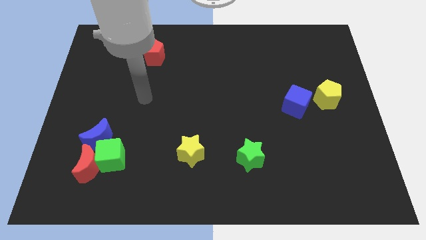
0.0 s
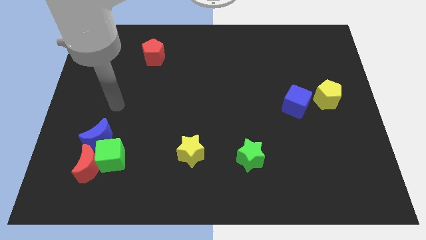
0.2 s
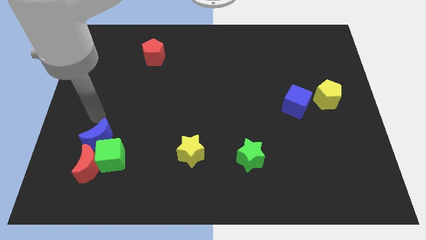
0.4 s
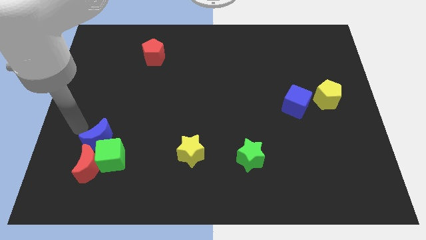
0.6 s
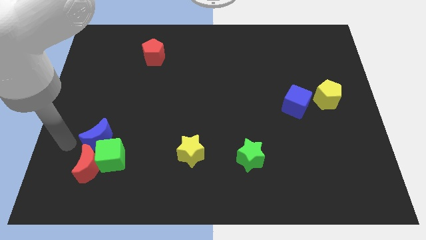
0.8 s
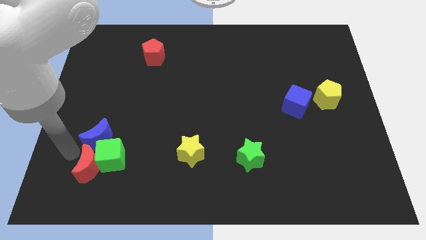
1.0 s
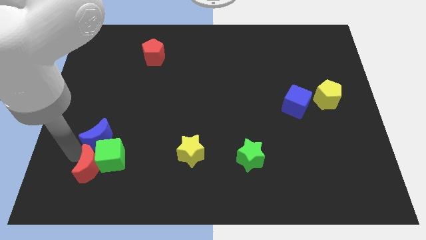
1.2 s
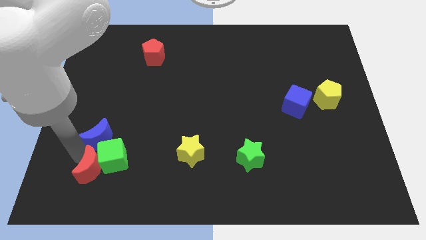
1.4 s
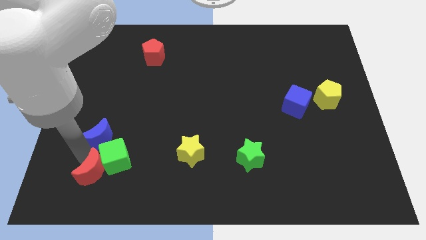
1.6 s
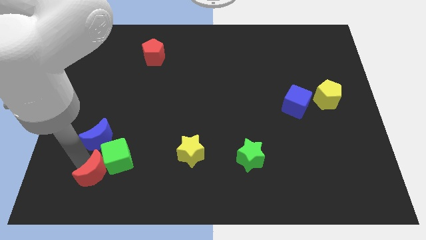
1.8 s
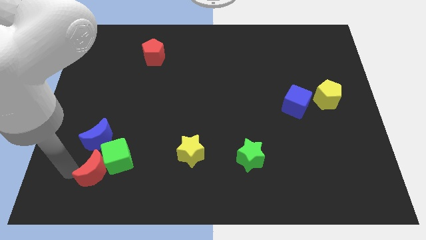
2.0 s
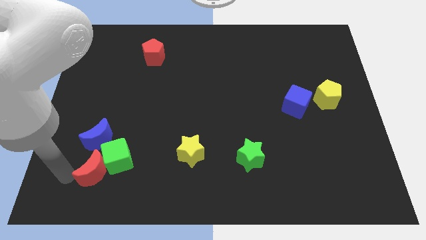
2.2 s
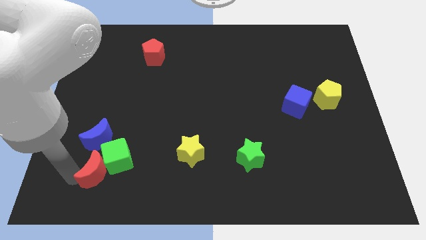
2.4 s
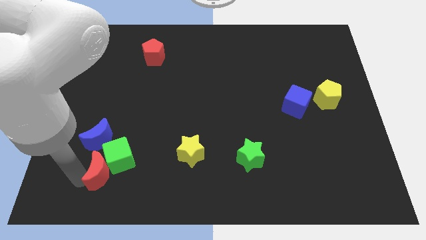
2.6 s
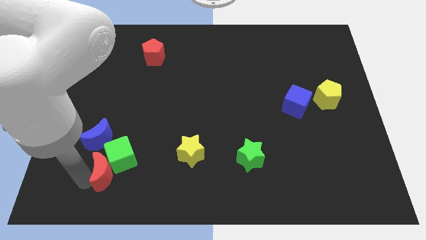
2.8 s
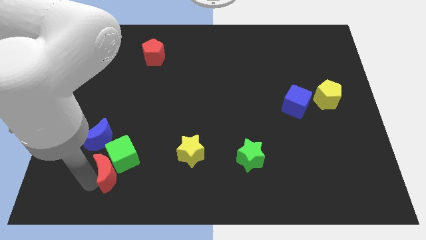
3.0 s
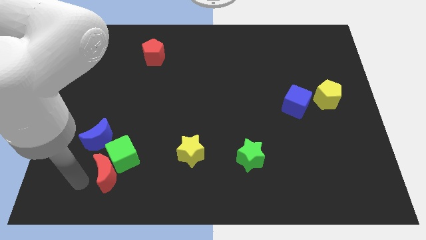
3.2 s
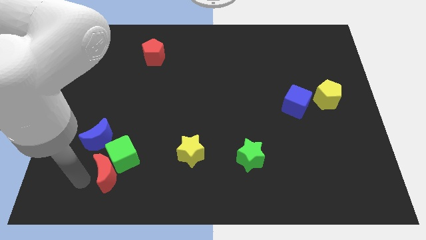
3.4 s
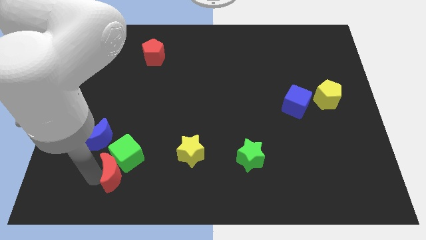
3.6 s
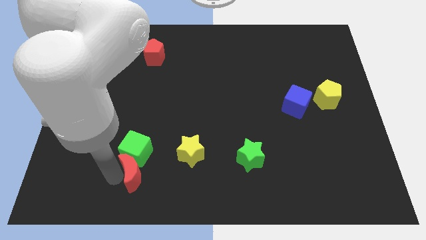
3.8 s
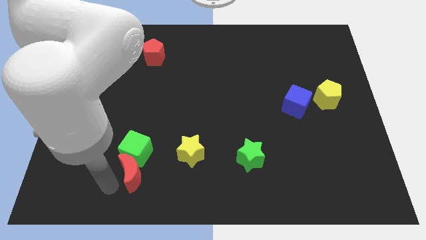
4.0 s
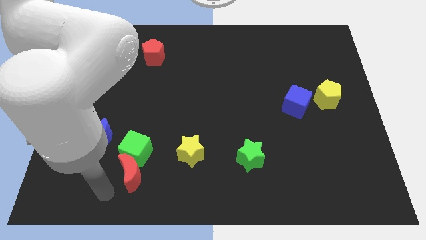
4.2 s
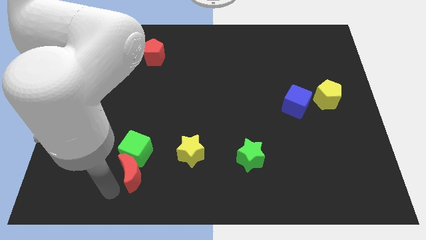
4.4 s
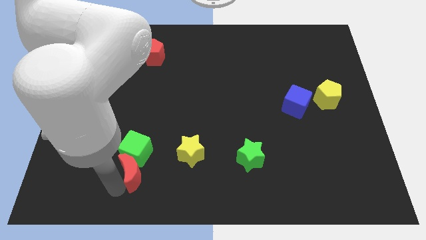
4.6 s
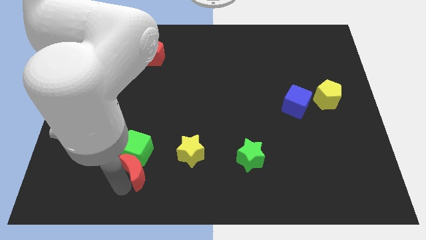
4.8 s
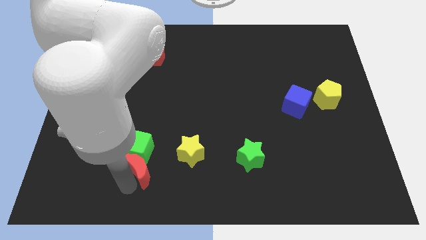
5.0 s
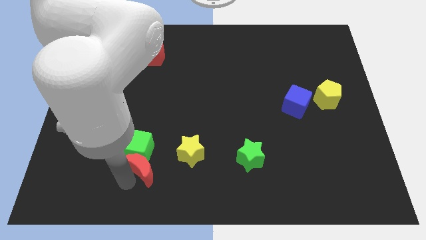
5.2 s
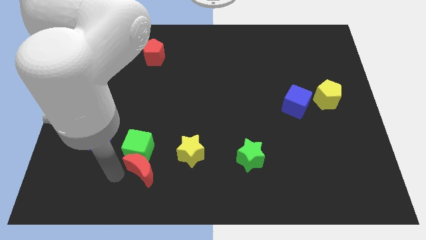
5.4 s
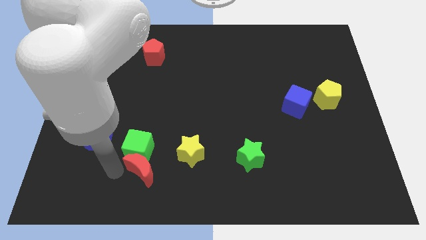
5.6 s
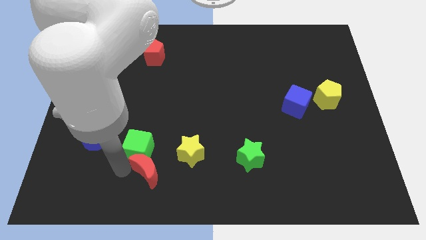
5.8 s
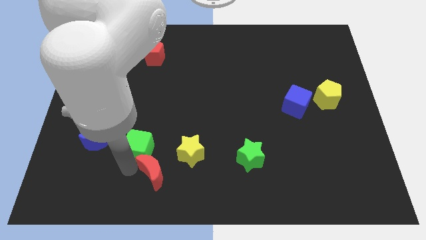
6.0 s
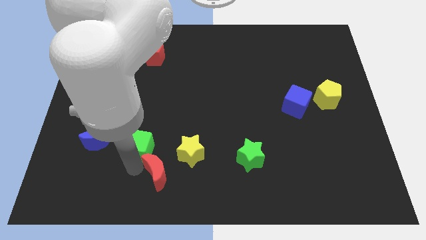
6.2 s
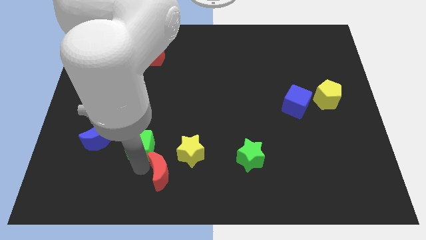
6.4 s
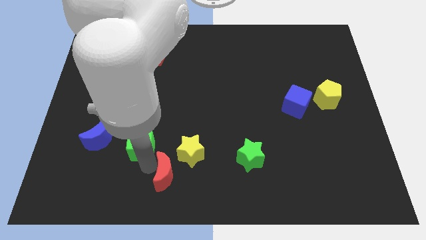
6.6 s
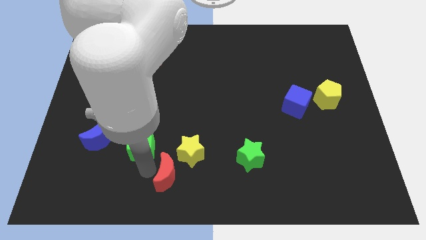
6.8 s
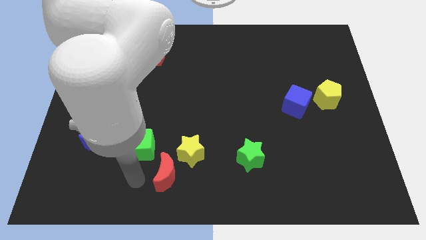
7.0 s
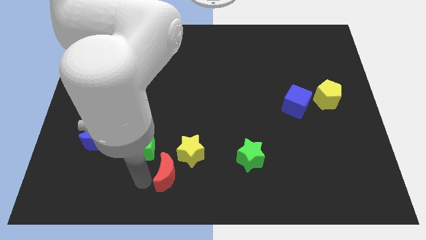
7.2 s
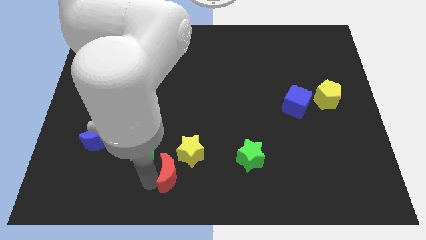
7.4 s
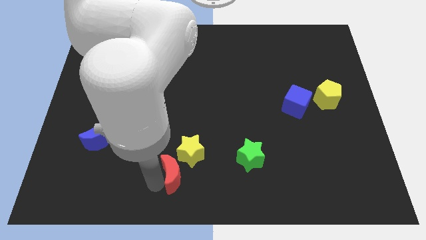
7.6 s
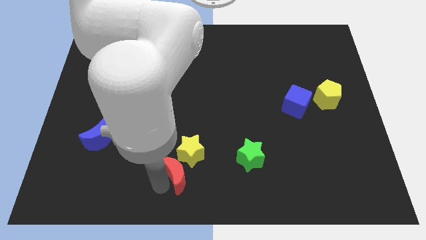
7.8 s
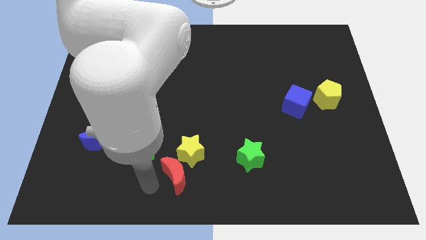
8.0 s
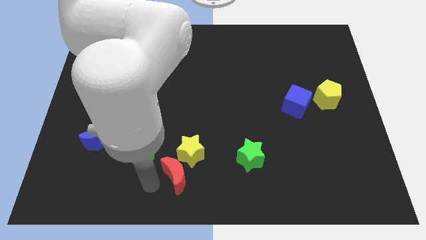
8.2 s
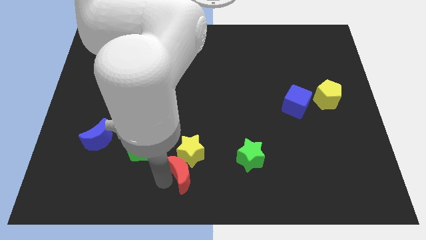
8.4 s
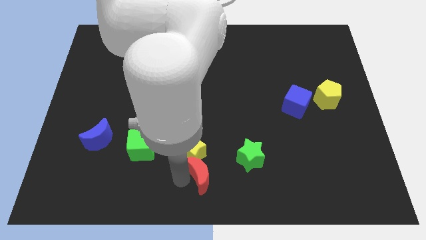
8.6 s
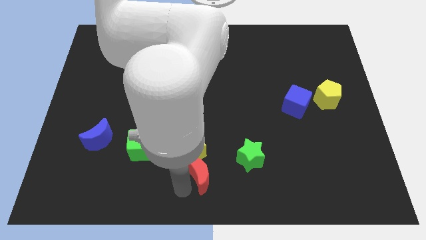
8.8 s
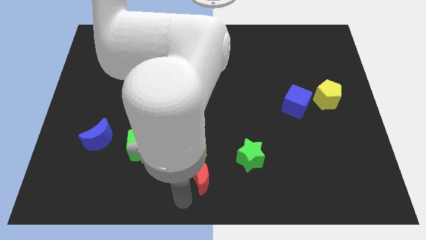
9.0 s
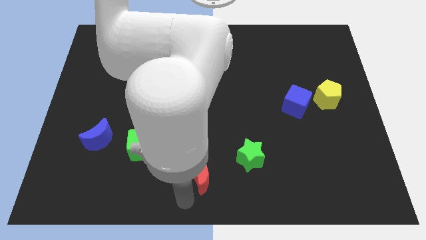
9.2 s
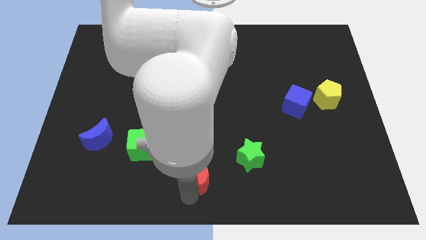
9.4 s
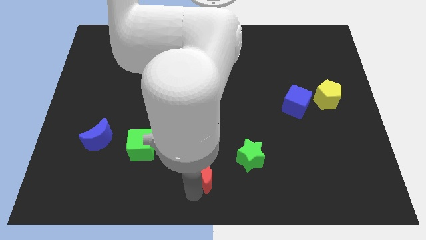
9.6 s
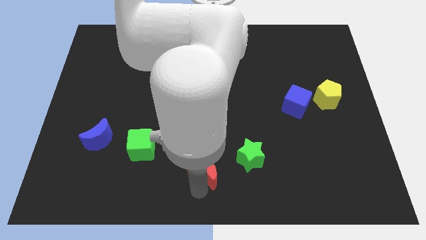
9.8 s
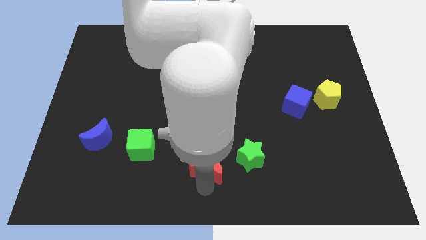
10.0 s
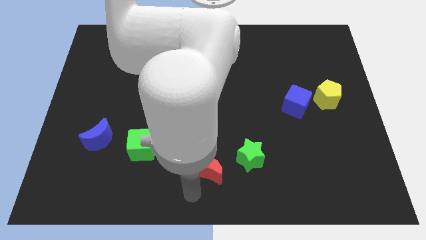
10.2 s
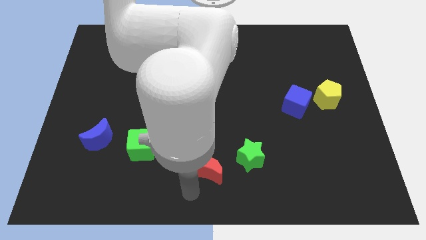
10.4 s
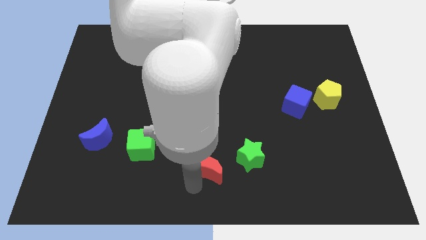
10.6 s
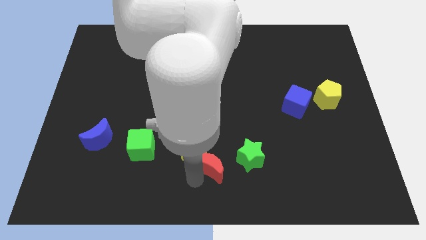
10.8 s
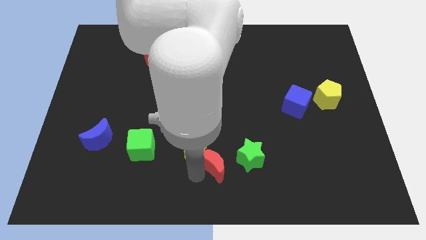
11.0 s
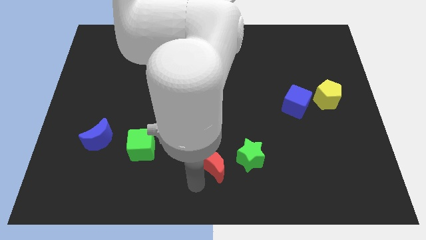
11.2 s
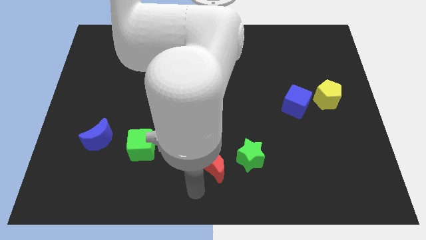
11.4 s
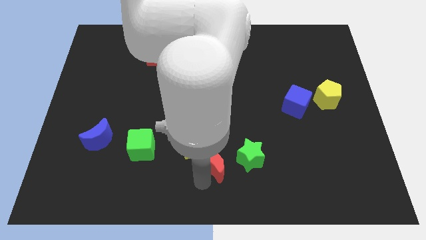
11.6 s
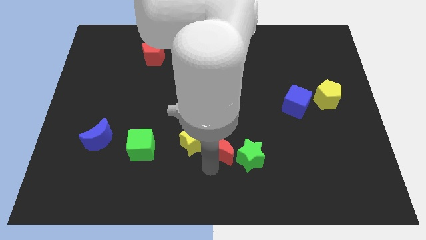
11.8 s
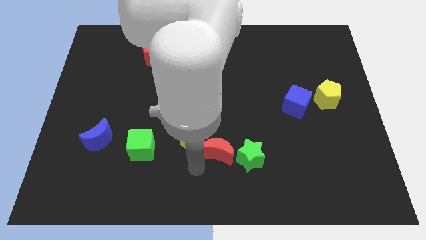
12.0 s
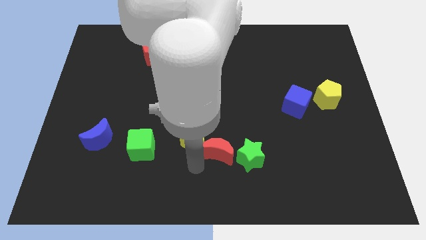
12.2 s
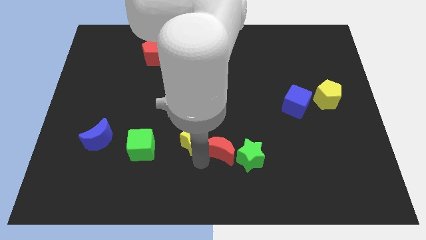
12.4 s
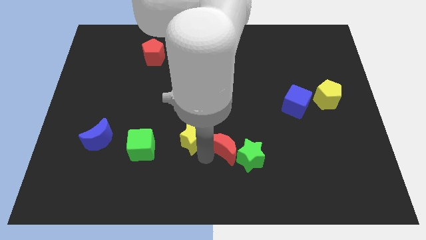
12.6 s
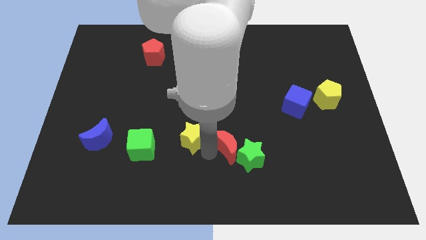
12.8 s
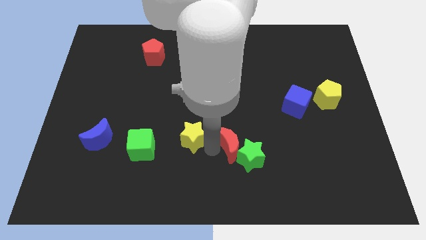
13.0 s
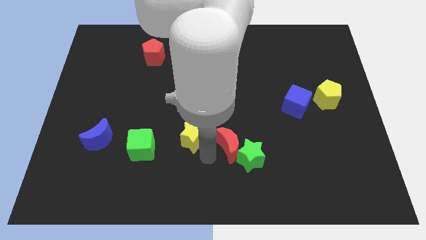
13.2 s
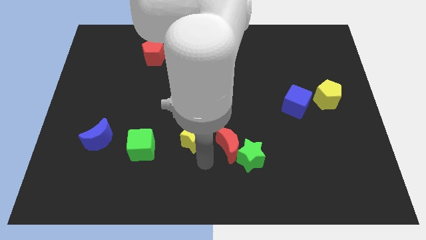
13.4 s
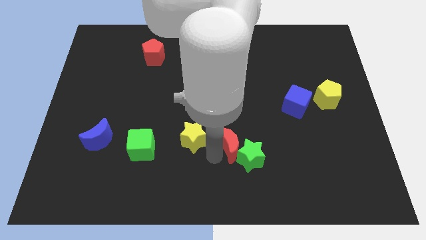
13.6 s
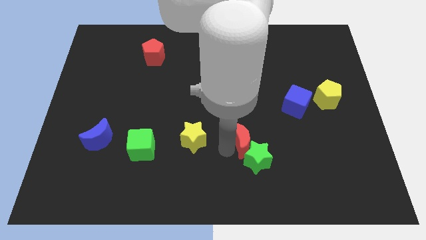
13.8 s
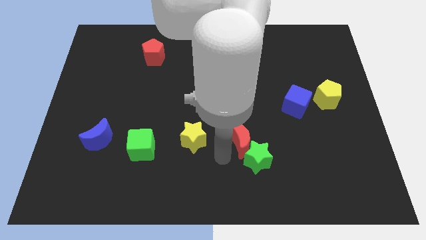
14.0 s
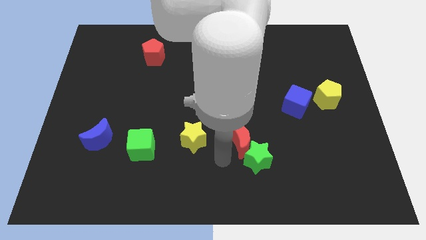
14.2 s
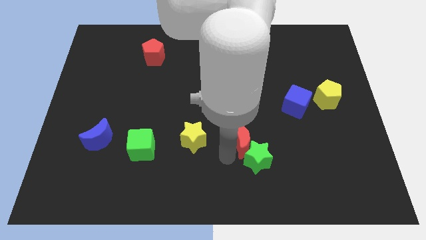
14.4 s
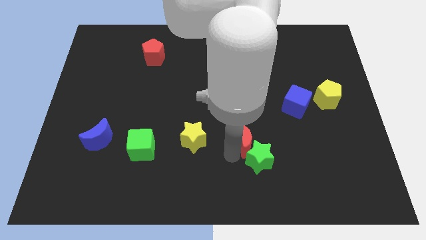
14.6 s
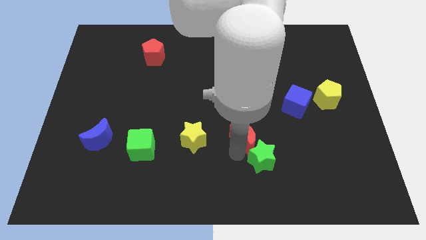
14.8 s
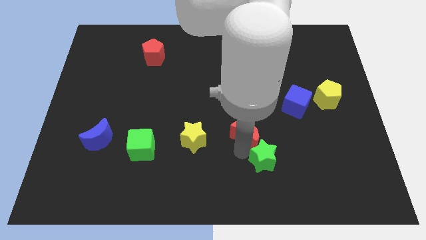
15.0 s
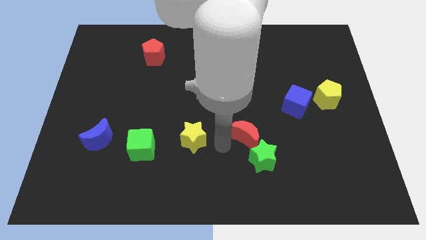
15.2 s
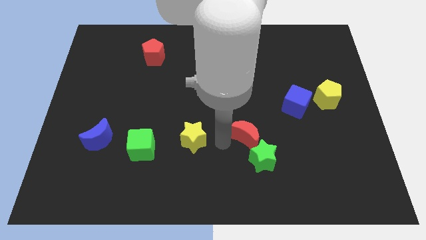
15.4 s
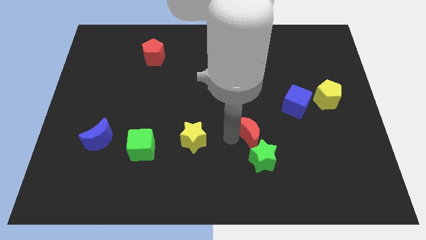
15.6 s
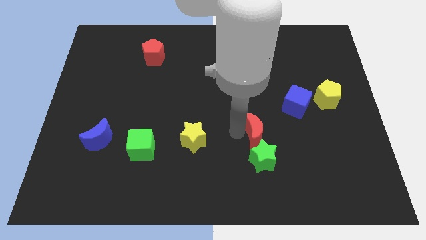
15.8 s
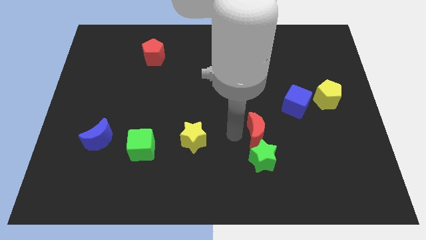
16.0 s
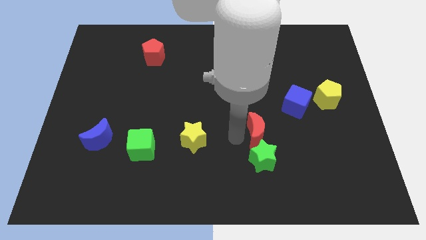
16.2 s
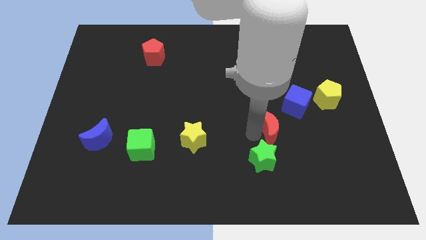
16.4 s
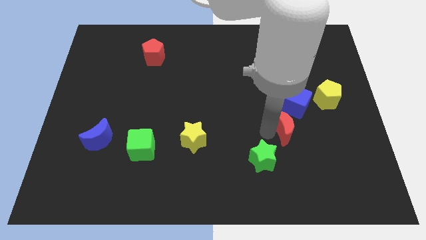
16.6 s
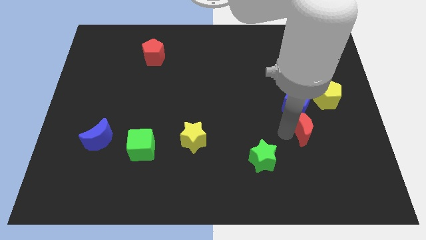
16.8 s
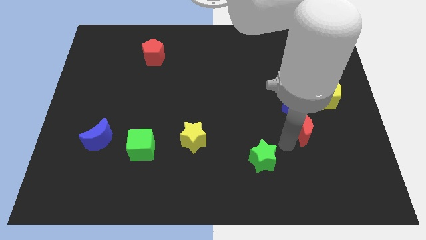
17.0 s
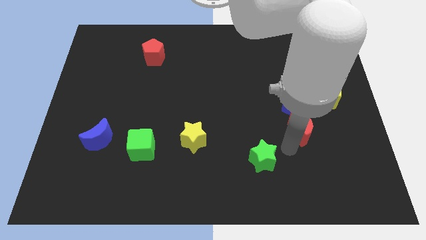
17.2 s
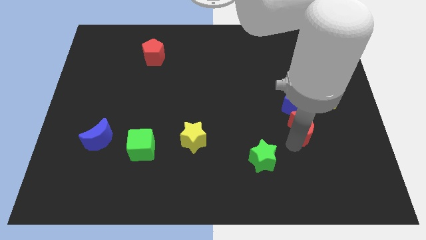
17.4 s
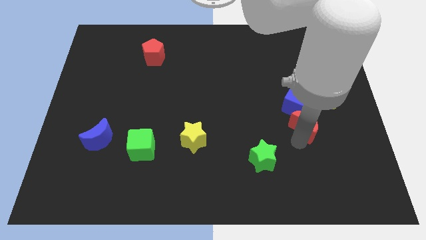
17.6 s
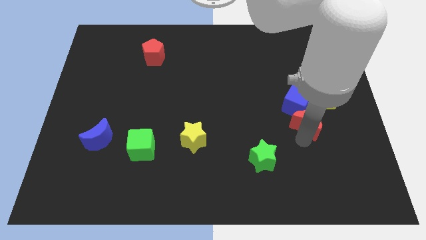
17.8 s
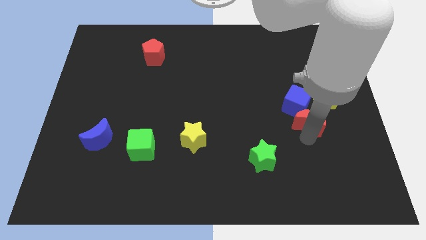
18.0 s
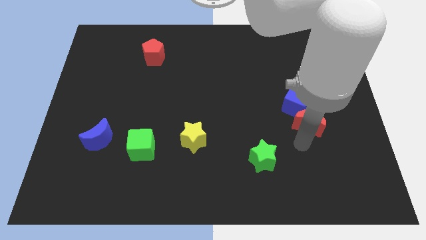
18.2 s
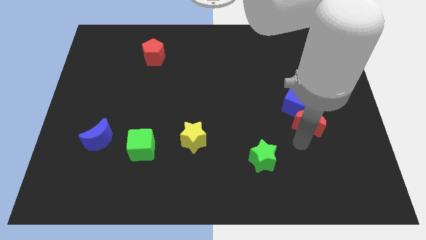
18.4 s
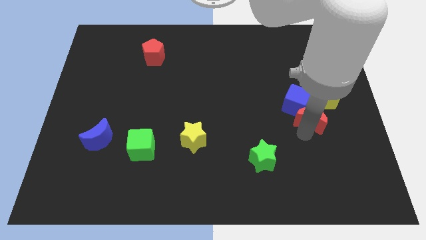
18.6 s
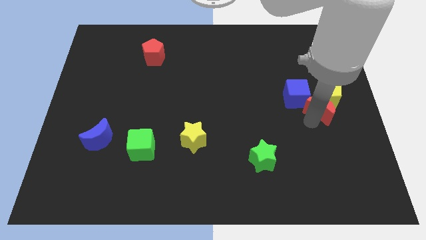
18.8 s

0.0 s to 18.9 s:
push the red moon to the yellow pentagon
